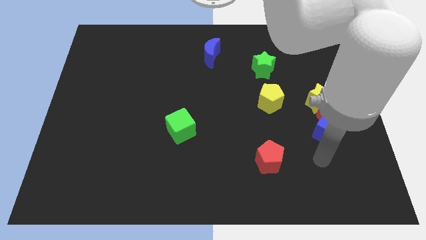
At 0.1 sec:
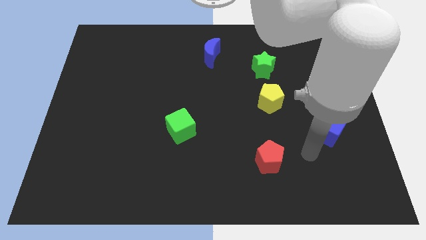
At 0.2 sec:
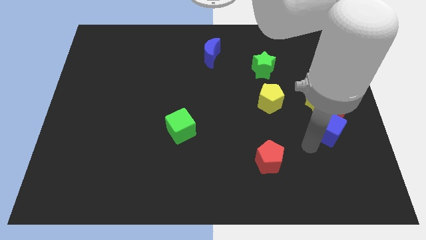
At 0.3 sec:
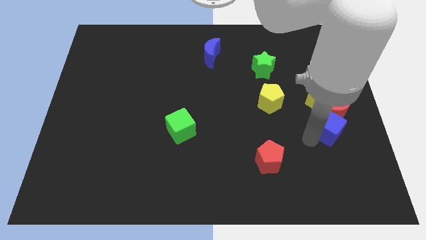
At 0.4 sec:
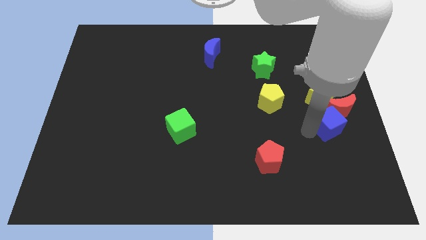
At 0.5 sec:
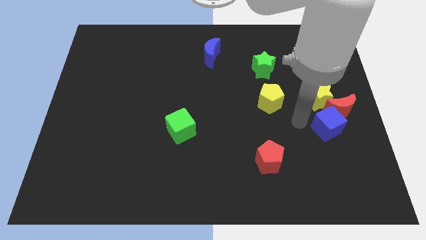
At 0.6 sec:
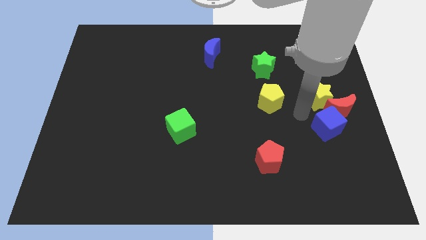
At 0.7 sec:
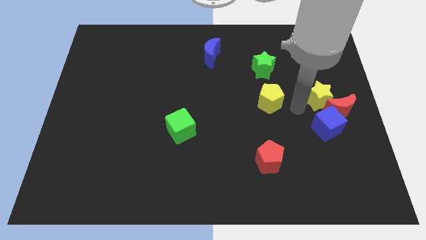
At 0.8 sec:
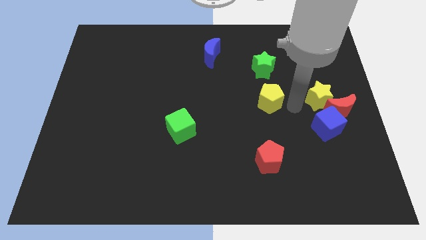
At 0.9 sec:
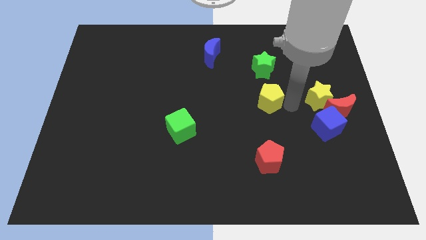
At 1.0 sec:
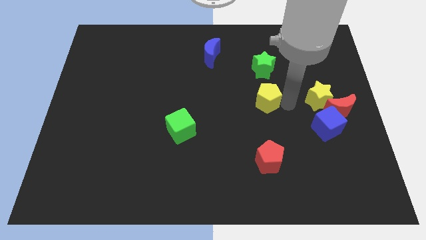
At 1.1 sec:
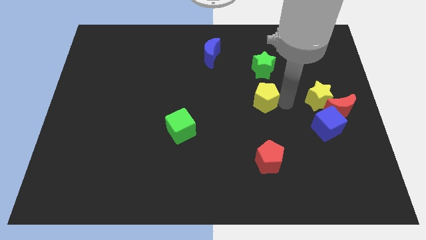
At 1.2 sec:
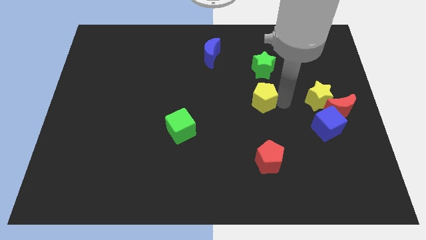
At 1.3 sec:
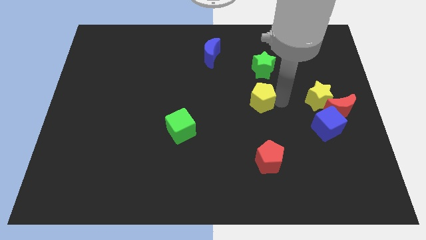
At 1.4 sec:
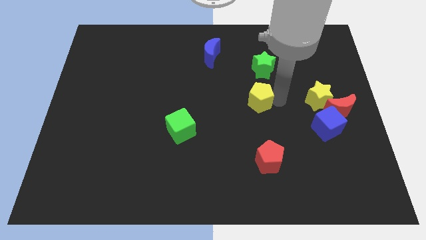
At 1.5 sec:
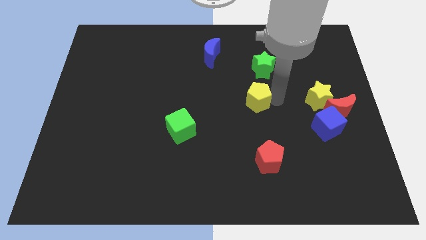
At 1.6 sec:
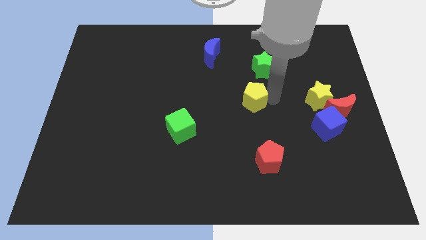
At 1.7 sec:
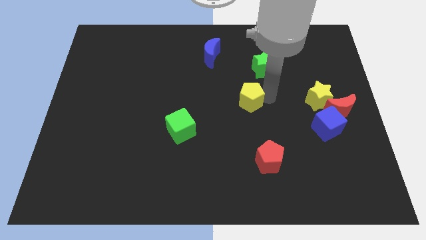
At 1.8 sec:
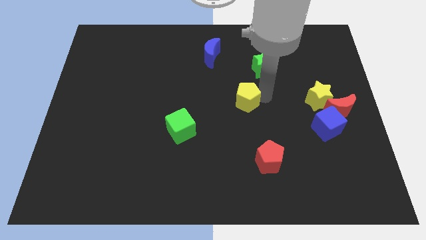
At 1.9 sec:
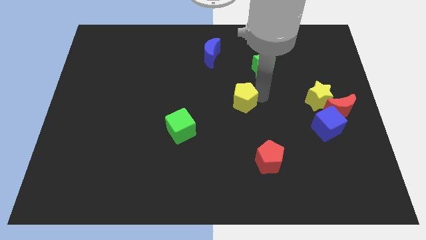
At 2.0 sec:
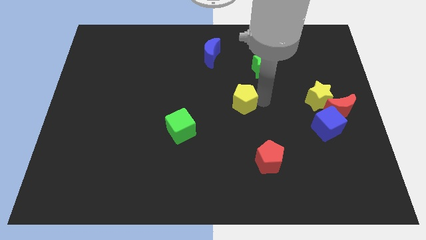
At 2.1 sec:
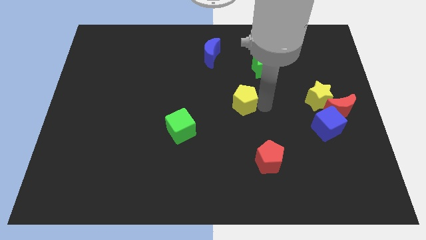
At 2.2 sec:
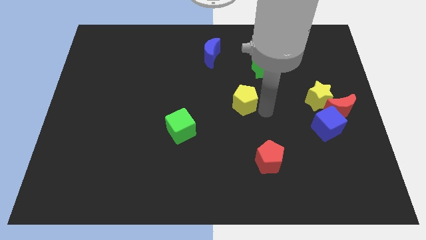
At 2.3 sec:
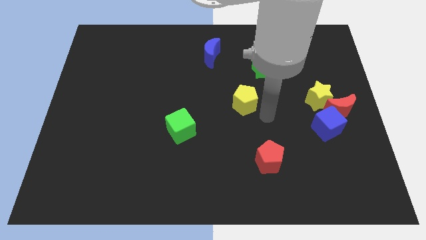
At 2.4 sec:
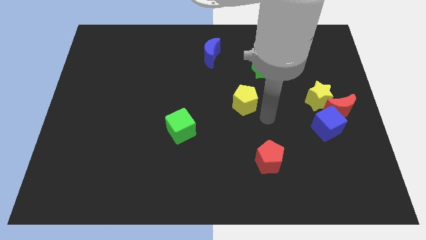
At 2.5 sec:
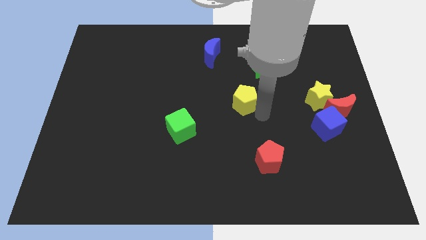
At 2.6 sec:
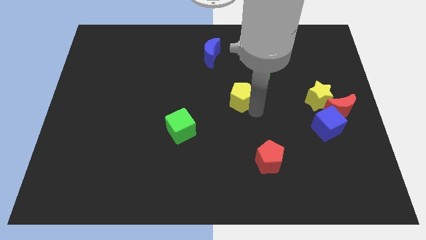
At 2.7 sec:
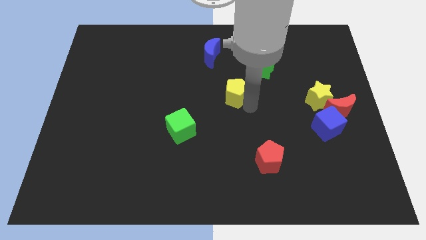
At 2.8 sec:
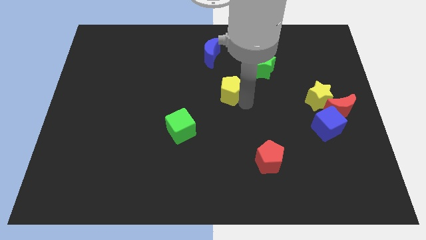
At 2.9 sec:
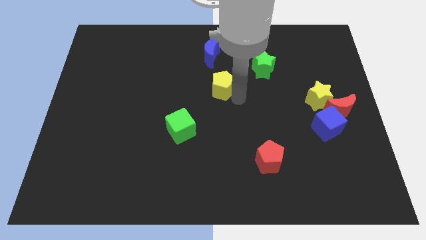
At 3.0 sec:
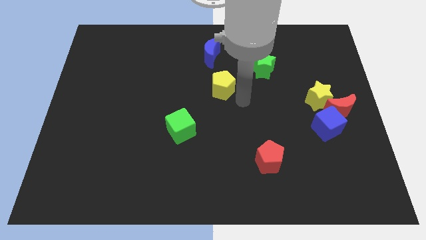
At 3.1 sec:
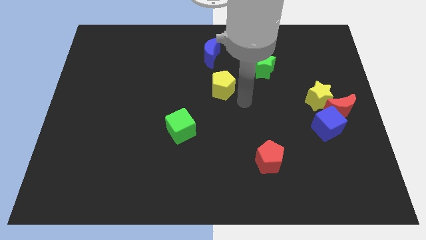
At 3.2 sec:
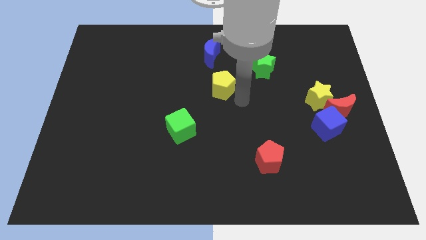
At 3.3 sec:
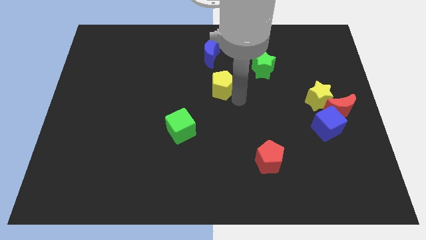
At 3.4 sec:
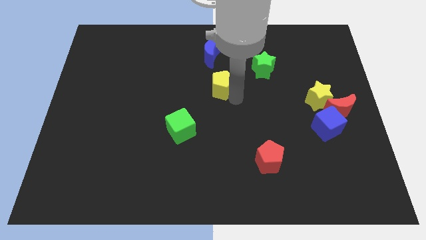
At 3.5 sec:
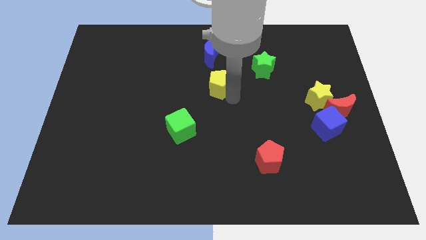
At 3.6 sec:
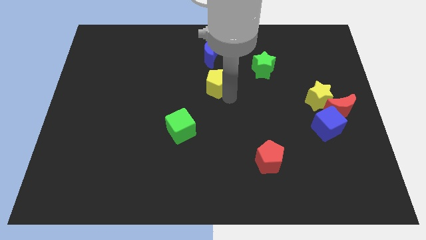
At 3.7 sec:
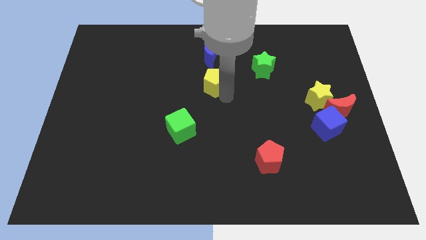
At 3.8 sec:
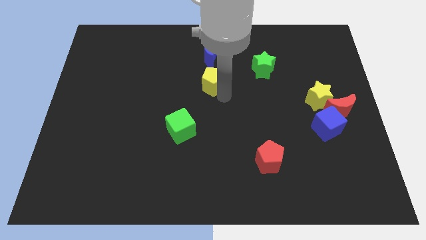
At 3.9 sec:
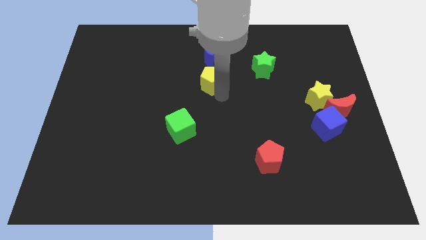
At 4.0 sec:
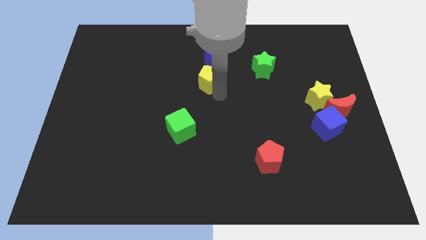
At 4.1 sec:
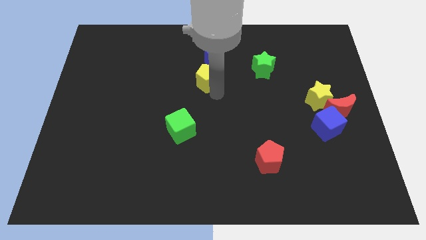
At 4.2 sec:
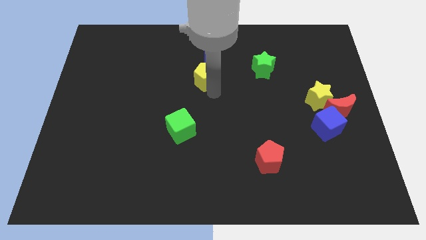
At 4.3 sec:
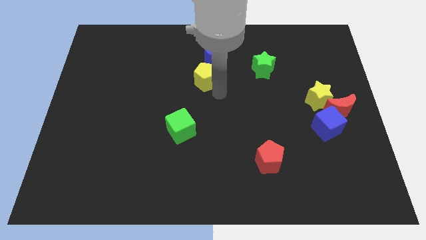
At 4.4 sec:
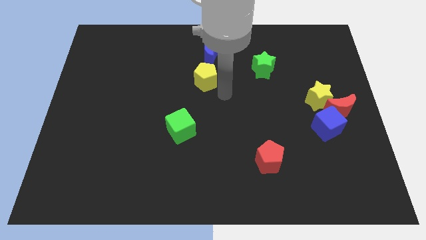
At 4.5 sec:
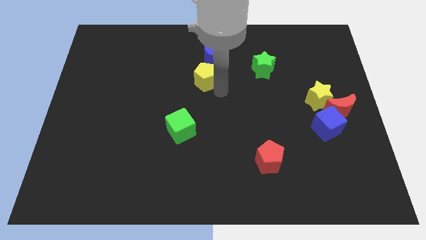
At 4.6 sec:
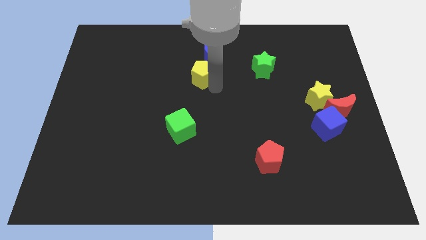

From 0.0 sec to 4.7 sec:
push the yellow pentagon diagonally down and to the left of the blue moon

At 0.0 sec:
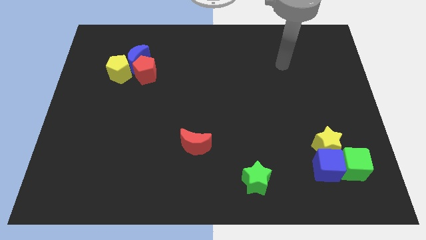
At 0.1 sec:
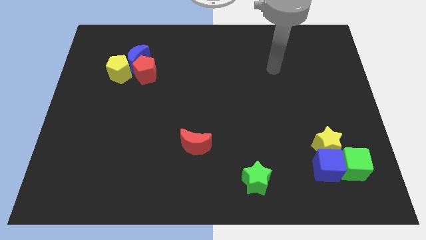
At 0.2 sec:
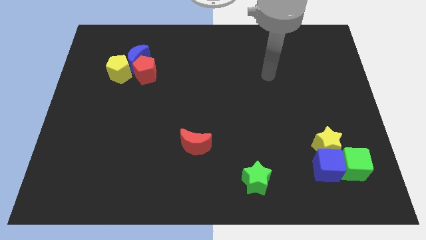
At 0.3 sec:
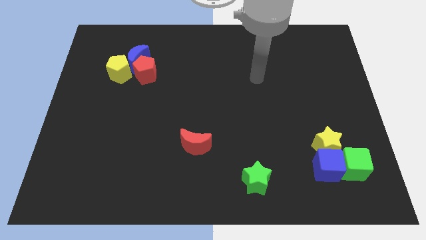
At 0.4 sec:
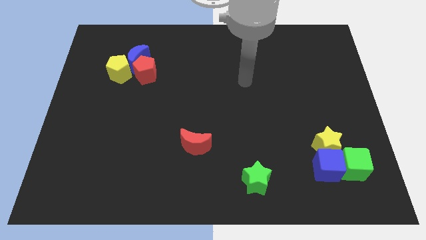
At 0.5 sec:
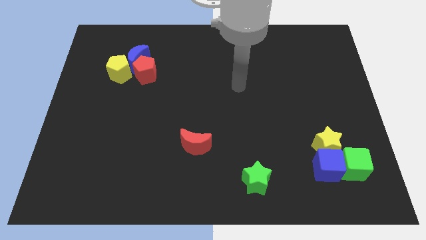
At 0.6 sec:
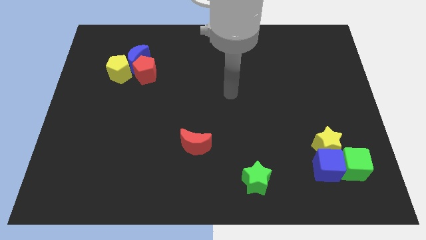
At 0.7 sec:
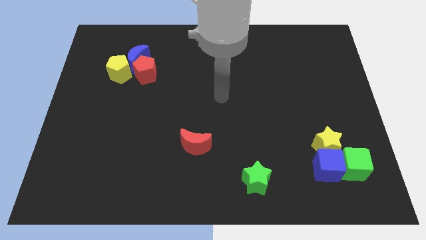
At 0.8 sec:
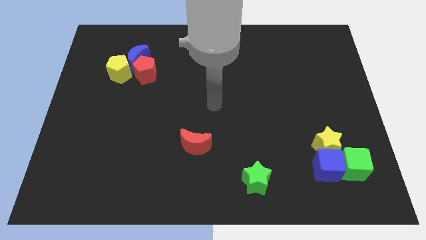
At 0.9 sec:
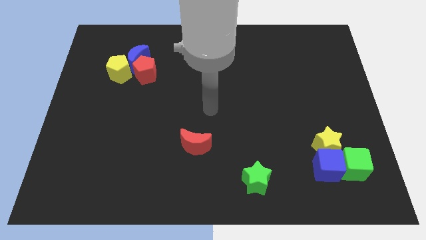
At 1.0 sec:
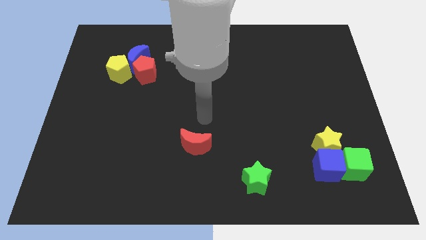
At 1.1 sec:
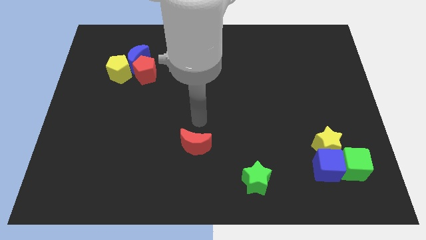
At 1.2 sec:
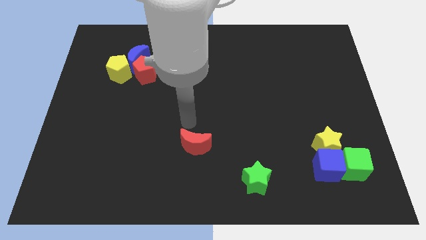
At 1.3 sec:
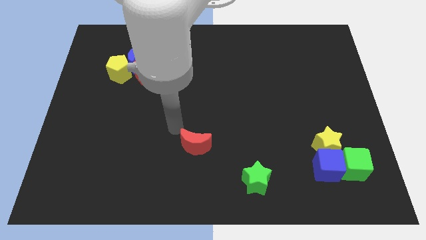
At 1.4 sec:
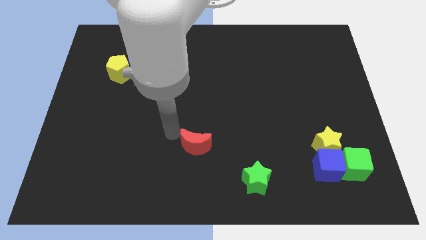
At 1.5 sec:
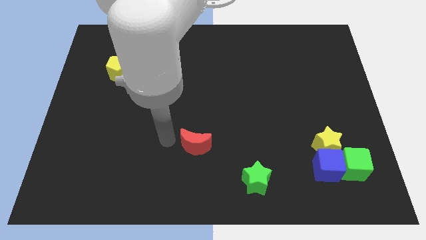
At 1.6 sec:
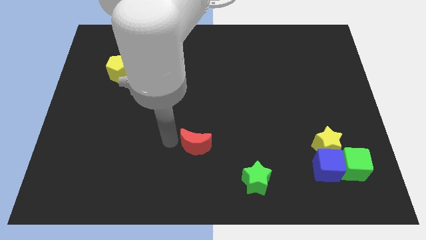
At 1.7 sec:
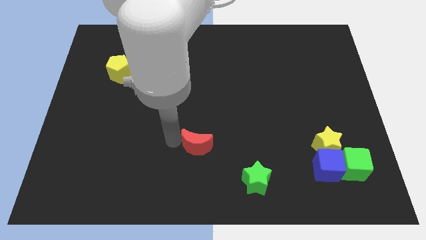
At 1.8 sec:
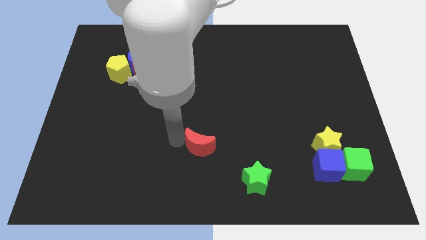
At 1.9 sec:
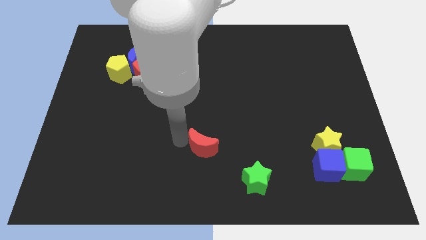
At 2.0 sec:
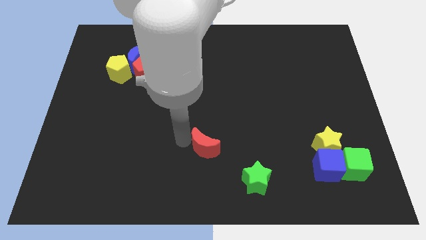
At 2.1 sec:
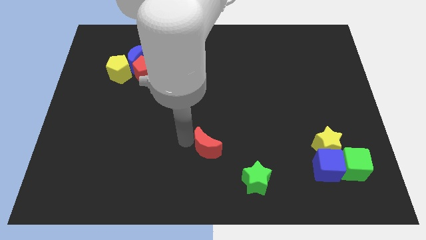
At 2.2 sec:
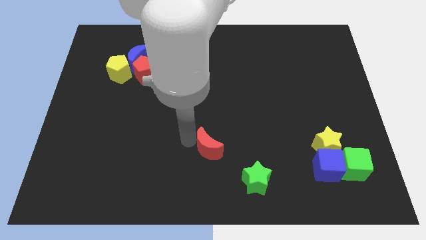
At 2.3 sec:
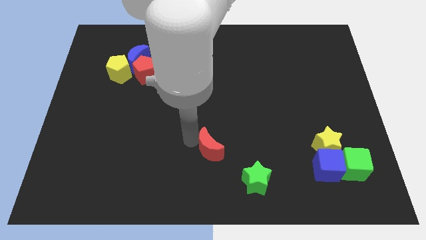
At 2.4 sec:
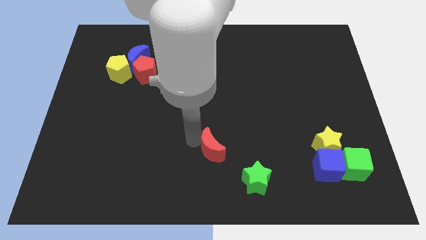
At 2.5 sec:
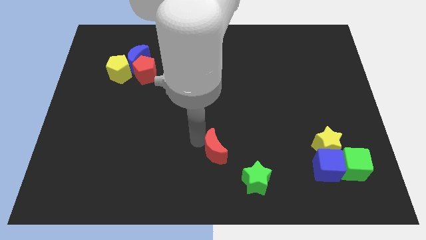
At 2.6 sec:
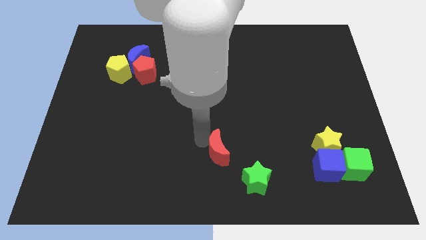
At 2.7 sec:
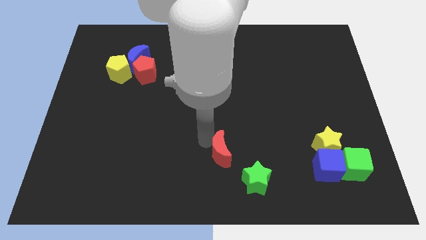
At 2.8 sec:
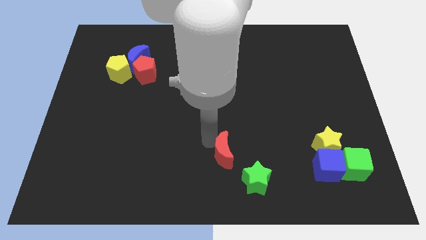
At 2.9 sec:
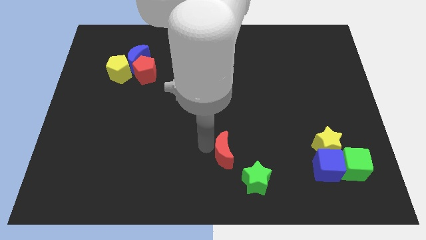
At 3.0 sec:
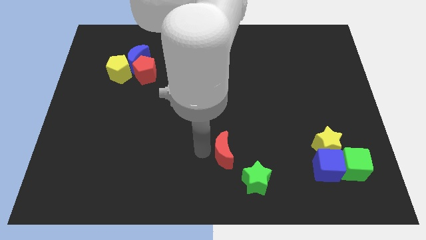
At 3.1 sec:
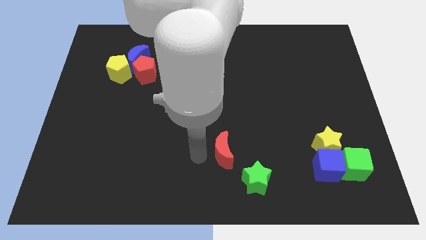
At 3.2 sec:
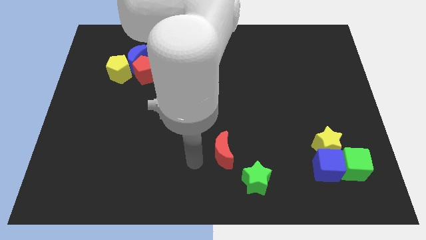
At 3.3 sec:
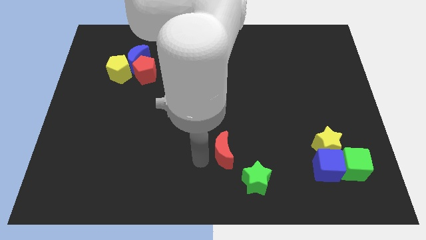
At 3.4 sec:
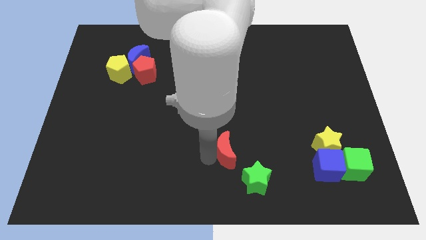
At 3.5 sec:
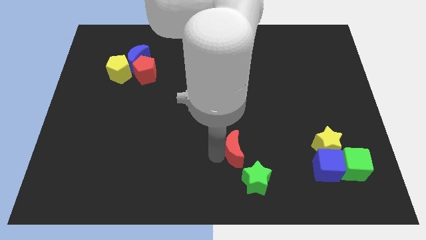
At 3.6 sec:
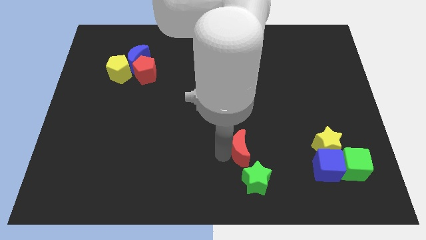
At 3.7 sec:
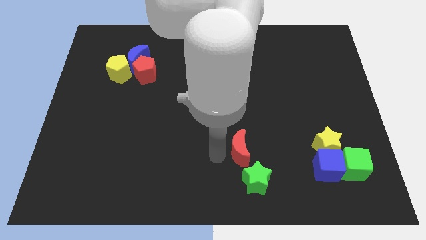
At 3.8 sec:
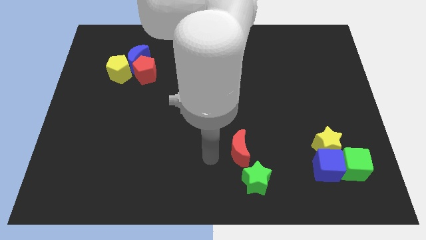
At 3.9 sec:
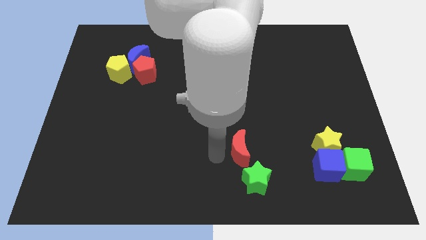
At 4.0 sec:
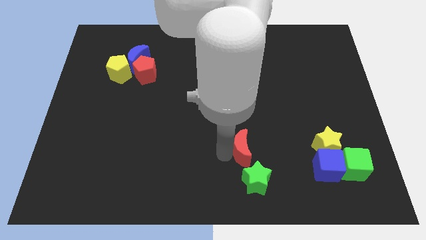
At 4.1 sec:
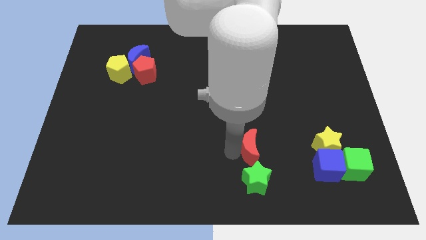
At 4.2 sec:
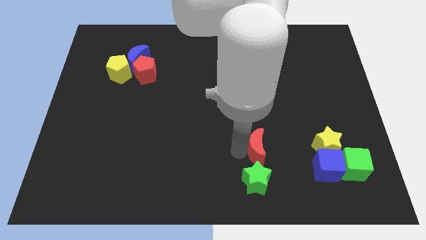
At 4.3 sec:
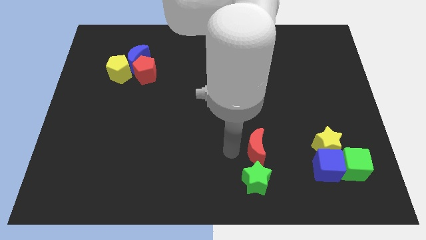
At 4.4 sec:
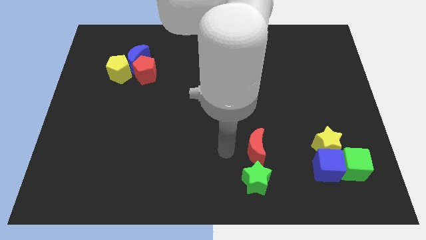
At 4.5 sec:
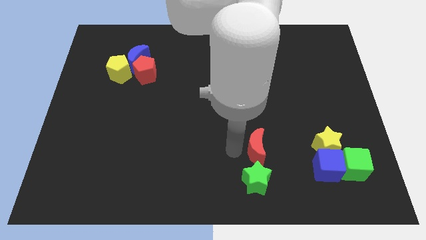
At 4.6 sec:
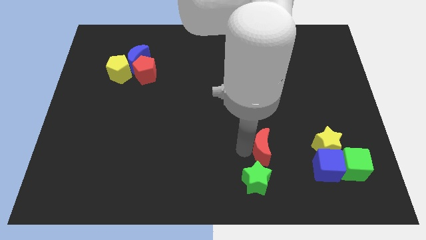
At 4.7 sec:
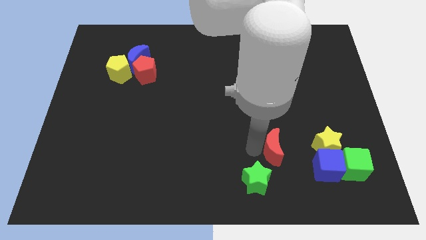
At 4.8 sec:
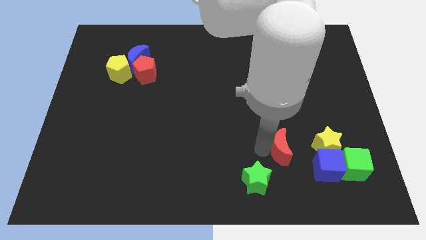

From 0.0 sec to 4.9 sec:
push the red moon to the top left of the blue cube
